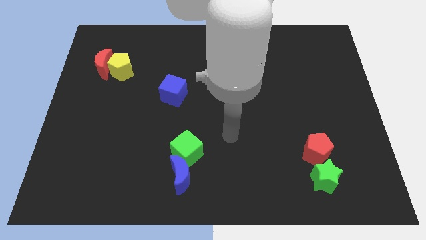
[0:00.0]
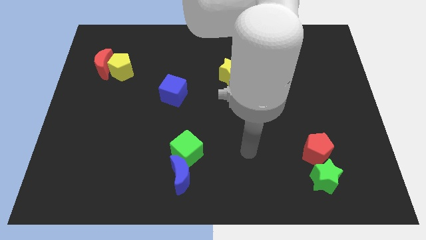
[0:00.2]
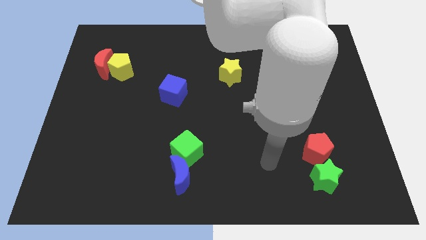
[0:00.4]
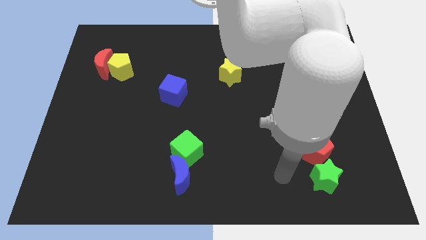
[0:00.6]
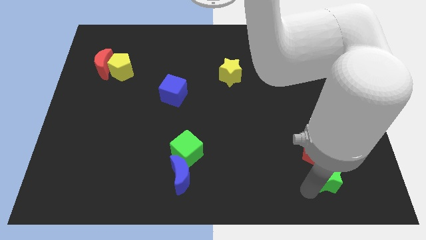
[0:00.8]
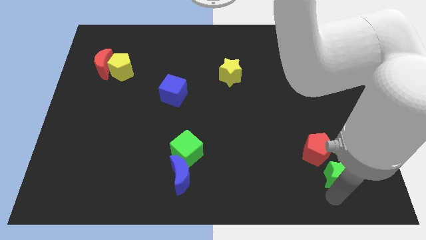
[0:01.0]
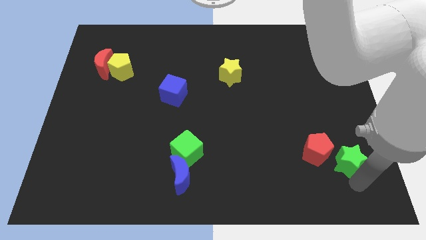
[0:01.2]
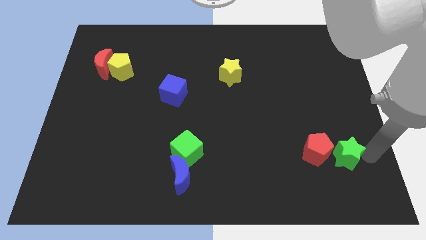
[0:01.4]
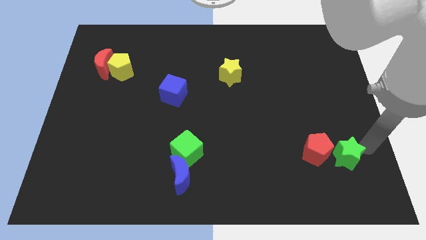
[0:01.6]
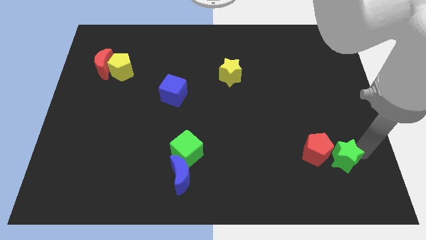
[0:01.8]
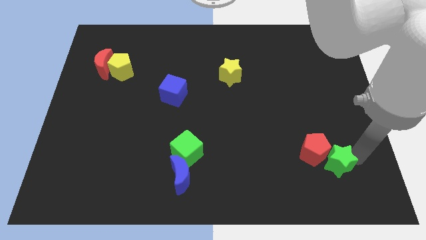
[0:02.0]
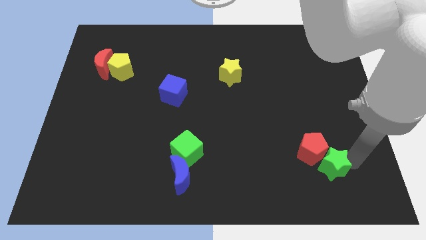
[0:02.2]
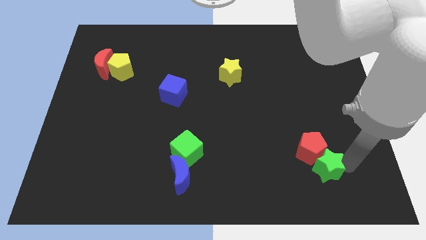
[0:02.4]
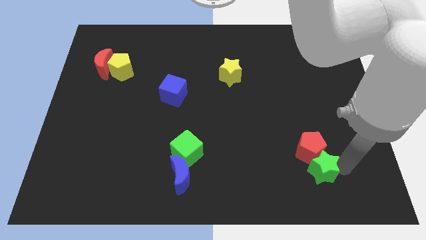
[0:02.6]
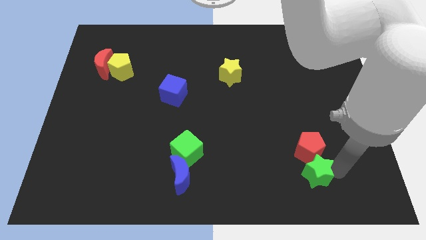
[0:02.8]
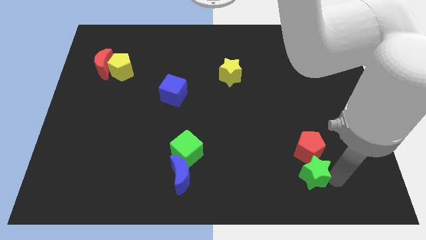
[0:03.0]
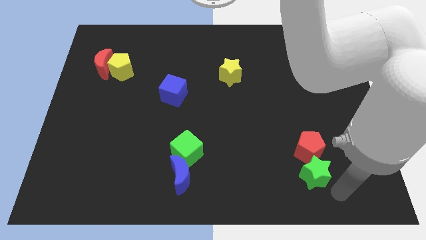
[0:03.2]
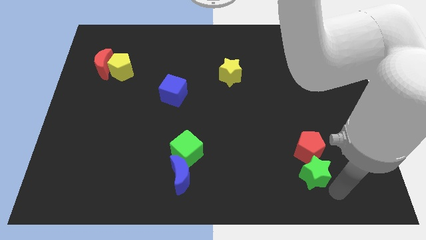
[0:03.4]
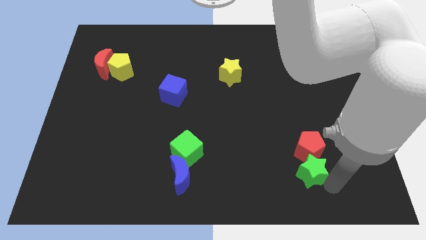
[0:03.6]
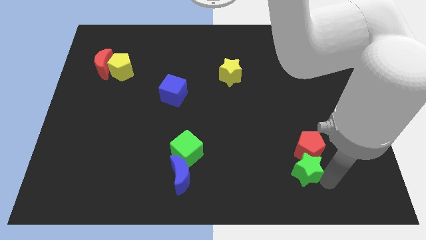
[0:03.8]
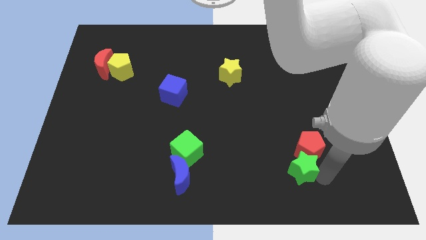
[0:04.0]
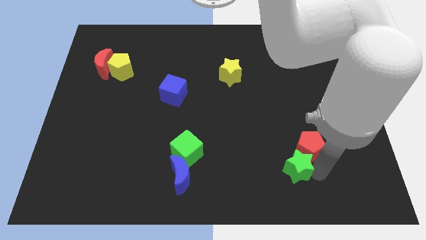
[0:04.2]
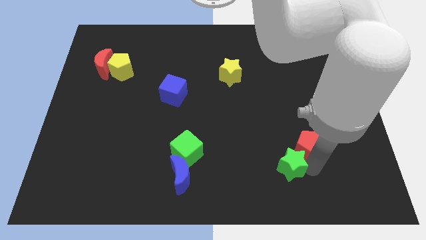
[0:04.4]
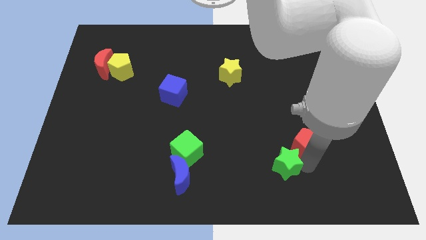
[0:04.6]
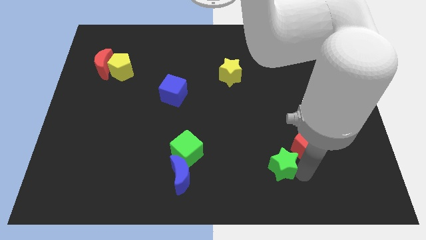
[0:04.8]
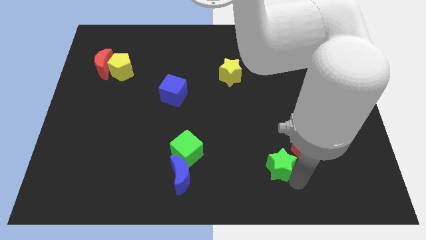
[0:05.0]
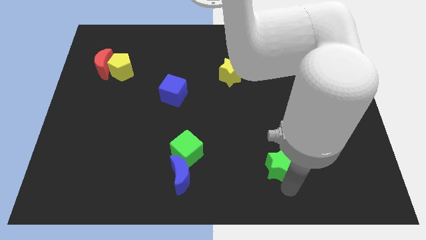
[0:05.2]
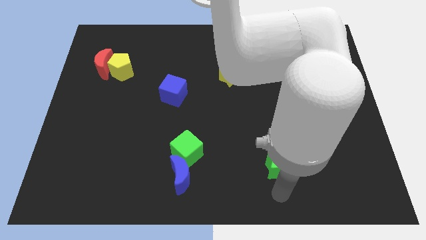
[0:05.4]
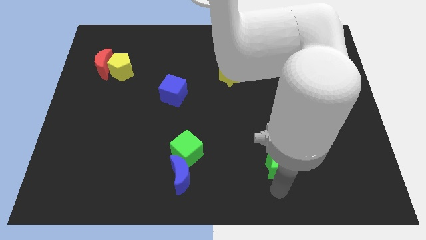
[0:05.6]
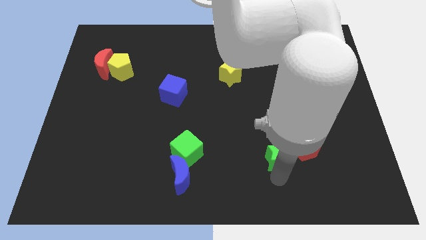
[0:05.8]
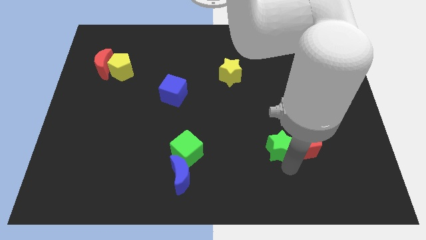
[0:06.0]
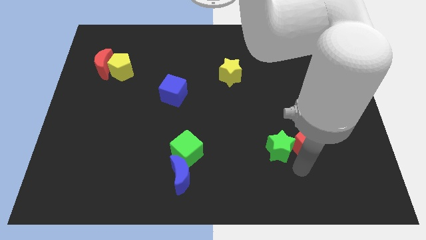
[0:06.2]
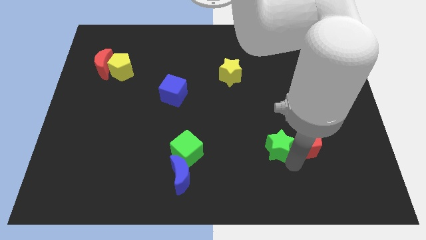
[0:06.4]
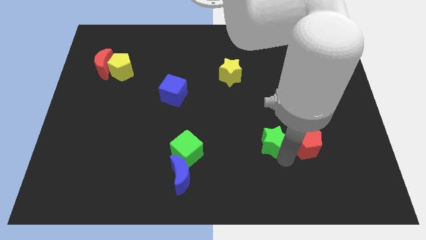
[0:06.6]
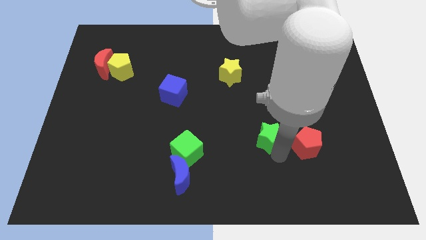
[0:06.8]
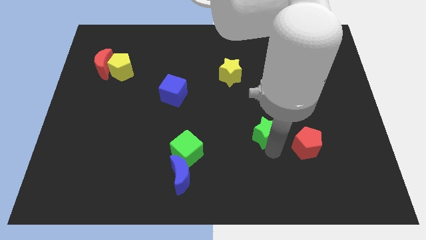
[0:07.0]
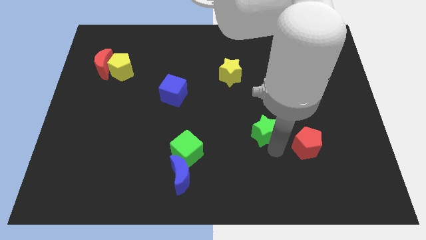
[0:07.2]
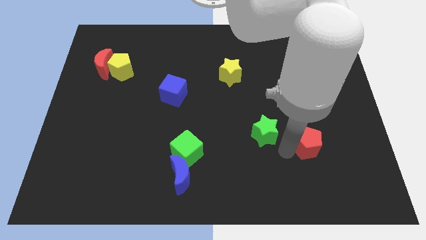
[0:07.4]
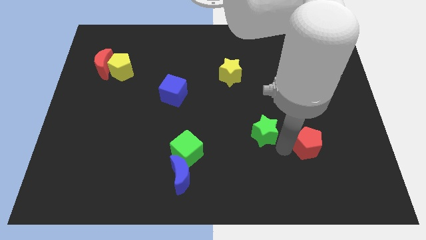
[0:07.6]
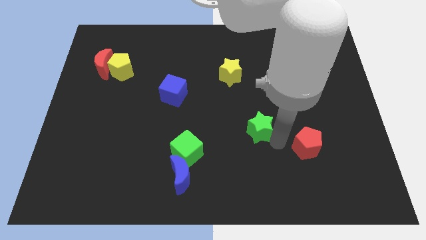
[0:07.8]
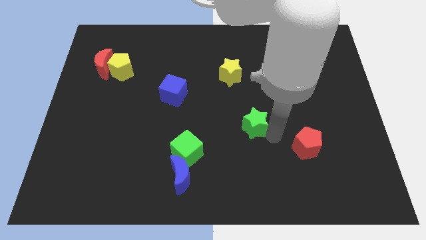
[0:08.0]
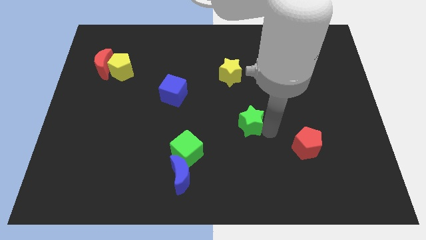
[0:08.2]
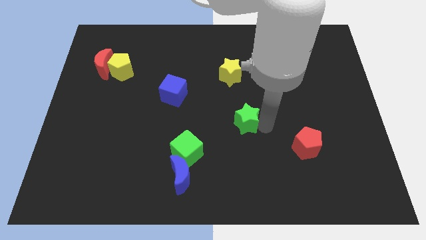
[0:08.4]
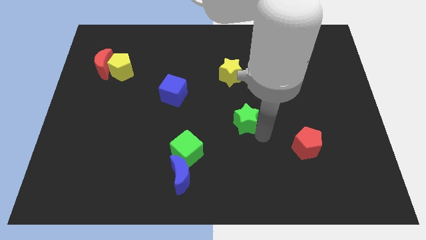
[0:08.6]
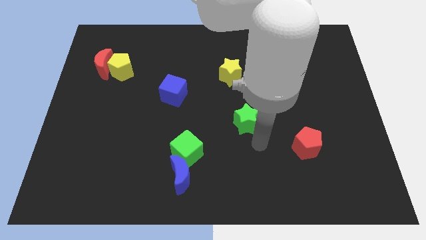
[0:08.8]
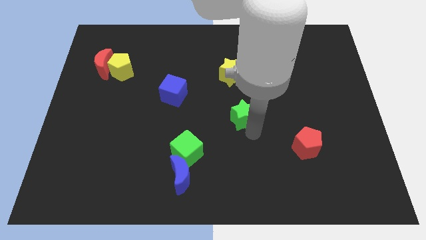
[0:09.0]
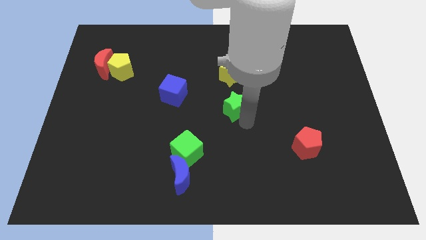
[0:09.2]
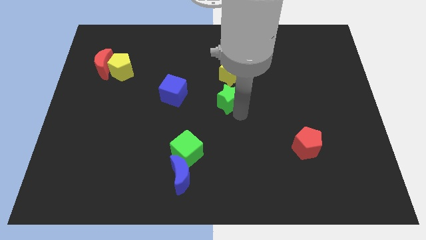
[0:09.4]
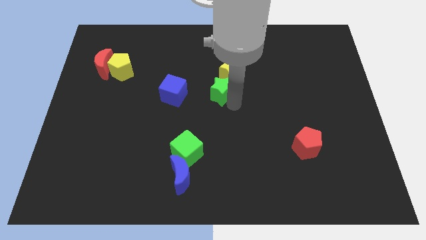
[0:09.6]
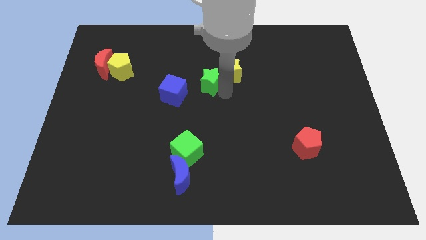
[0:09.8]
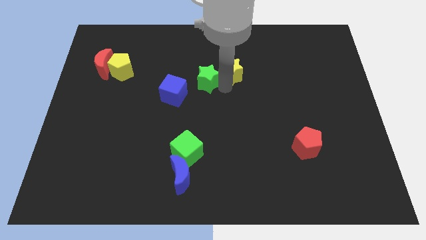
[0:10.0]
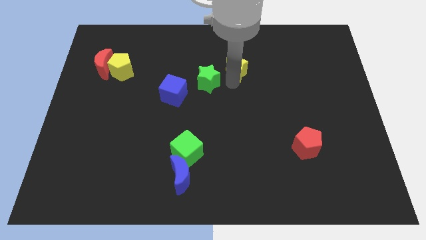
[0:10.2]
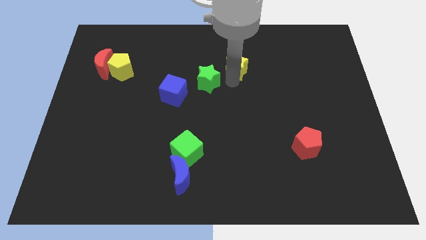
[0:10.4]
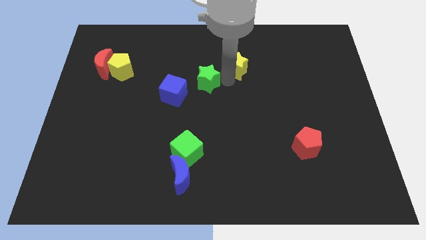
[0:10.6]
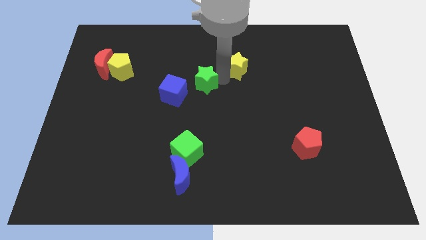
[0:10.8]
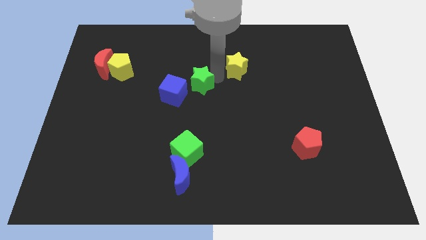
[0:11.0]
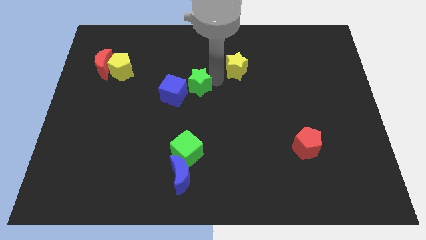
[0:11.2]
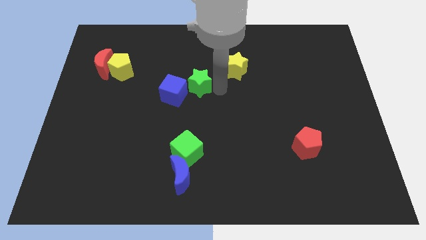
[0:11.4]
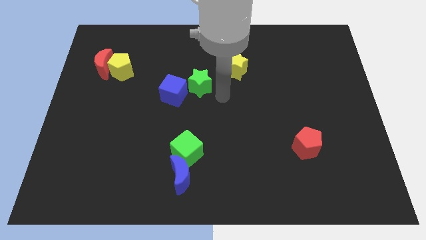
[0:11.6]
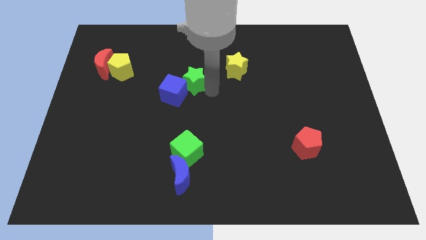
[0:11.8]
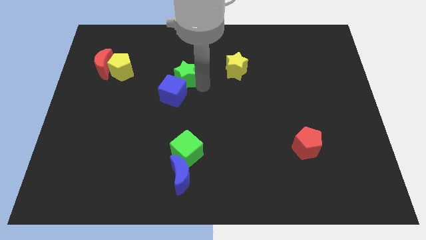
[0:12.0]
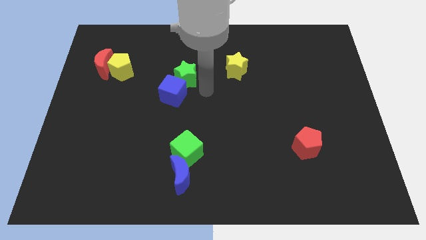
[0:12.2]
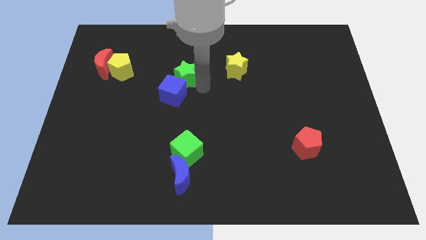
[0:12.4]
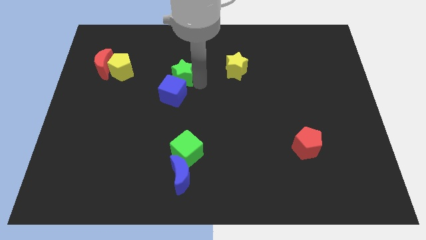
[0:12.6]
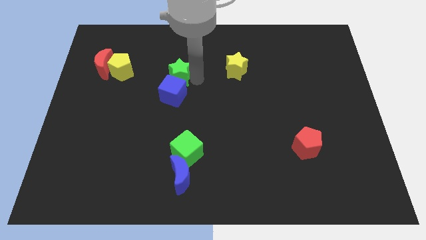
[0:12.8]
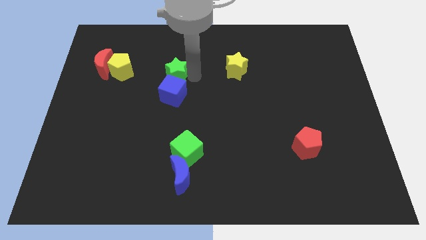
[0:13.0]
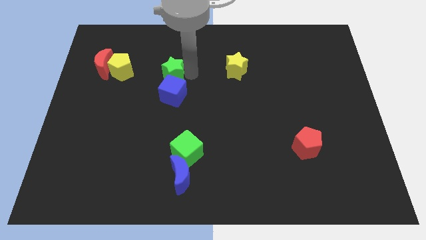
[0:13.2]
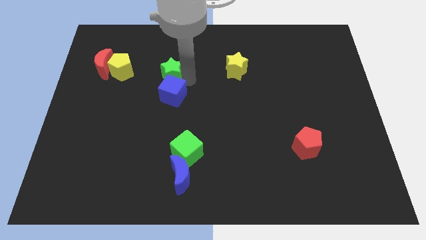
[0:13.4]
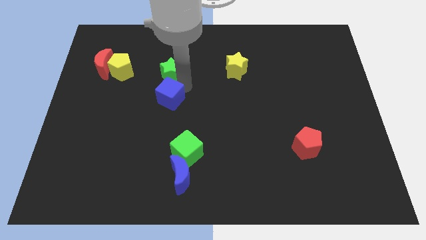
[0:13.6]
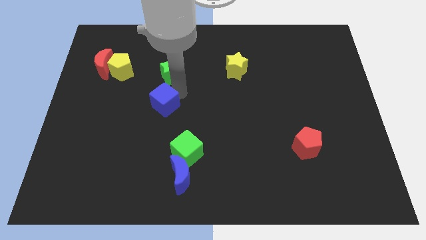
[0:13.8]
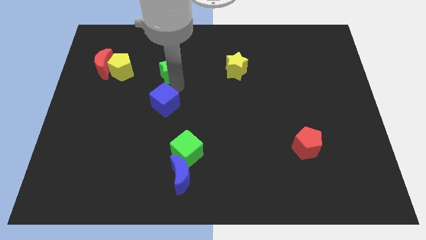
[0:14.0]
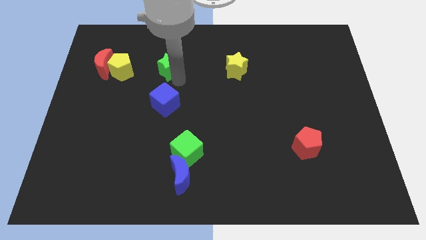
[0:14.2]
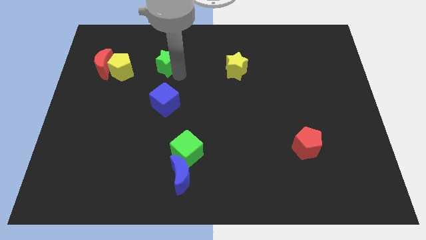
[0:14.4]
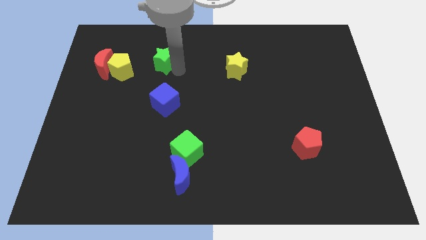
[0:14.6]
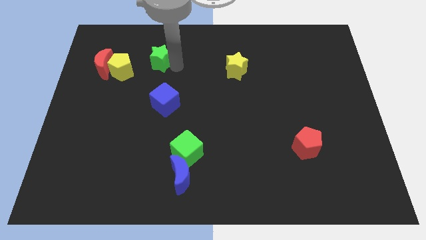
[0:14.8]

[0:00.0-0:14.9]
put the green star to the top right of the yellow pentagon
